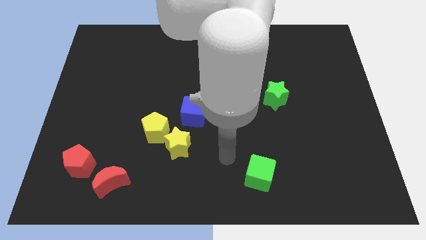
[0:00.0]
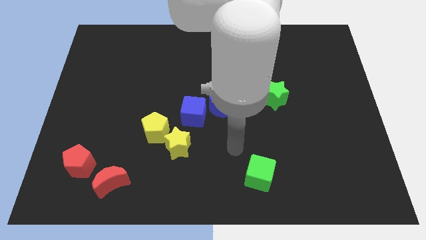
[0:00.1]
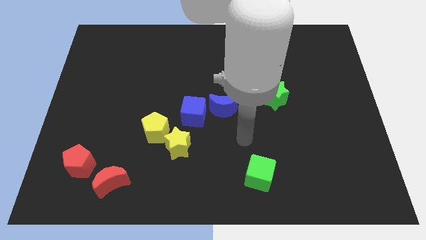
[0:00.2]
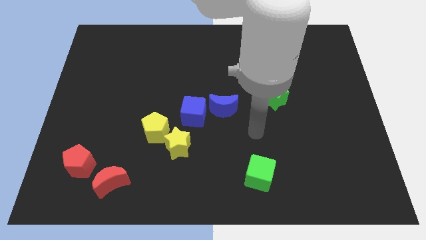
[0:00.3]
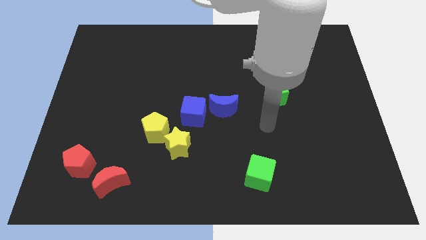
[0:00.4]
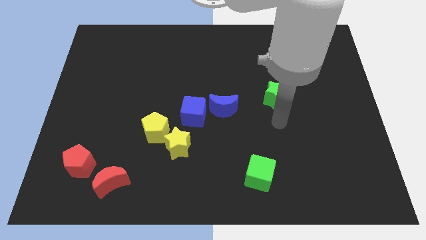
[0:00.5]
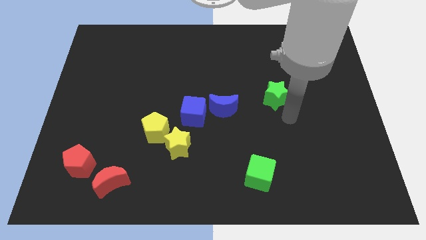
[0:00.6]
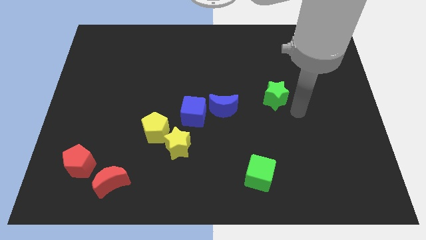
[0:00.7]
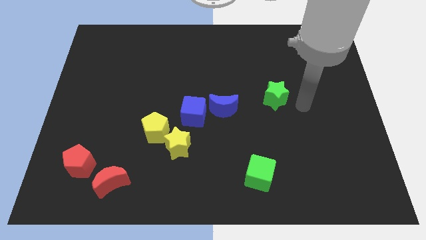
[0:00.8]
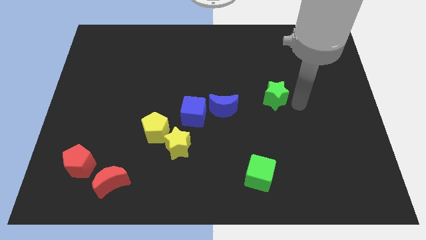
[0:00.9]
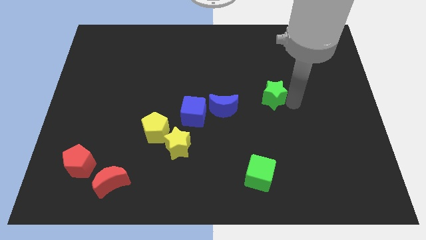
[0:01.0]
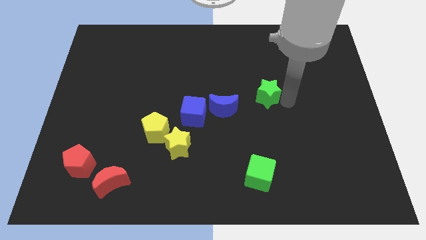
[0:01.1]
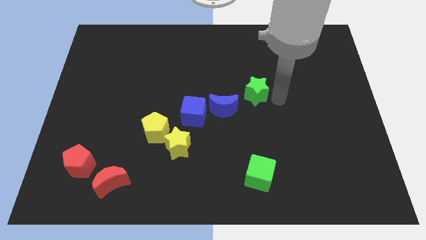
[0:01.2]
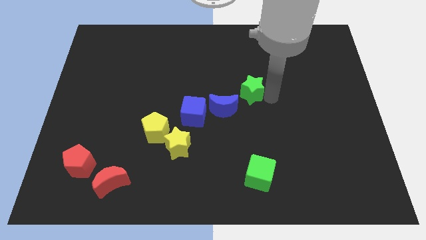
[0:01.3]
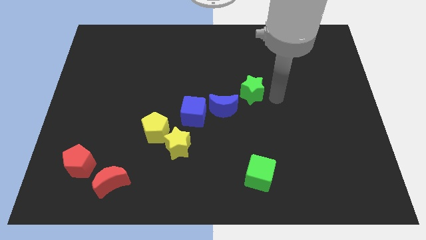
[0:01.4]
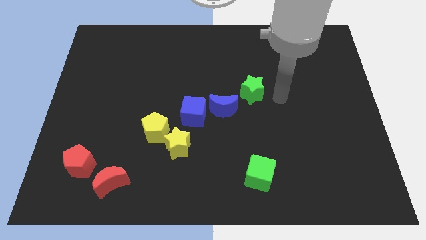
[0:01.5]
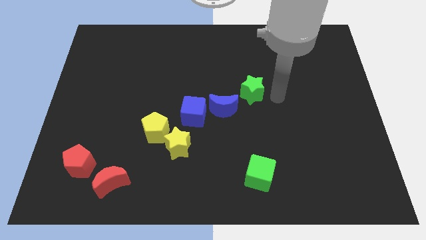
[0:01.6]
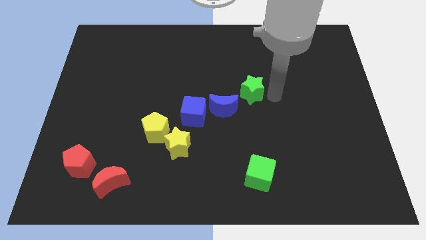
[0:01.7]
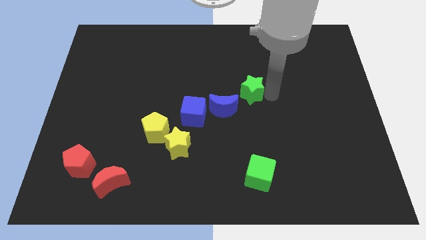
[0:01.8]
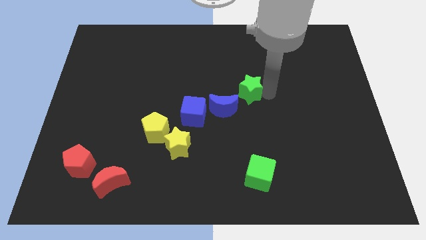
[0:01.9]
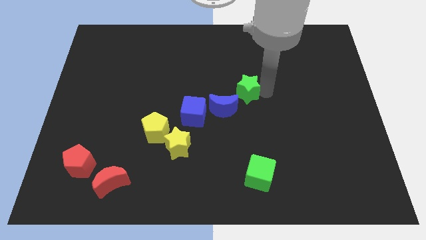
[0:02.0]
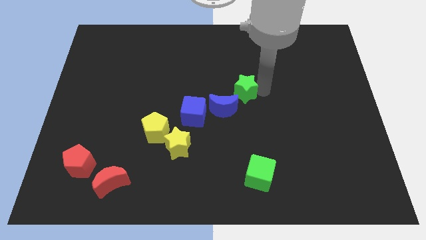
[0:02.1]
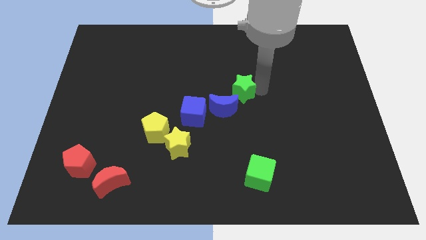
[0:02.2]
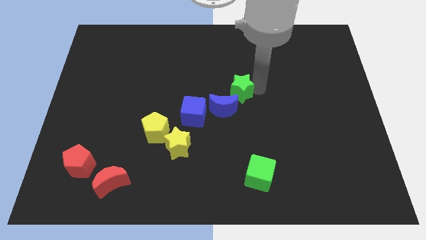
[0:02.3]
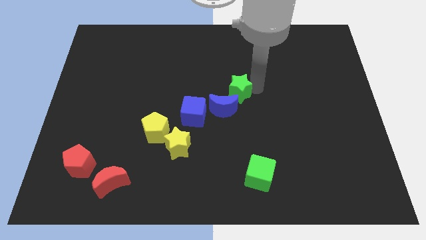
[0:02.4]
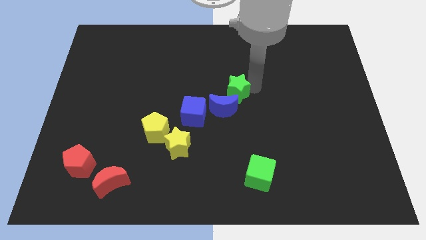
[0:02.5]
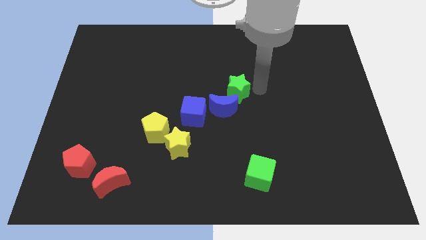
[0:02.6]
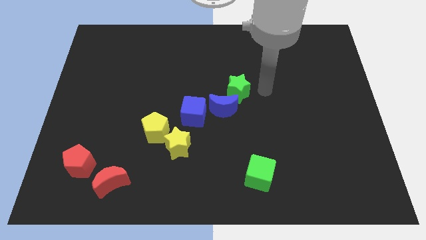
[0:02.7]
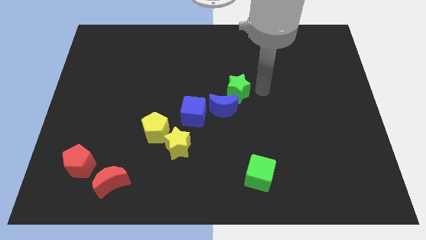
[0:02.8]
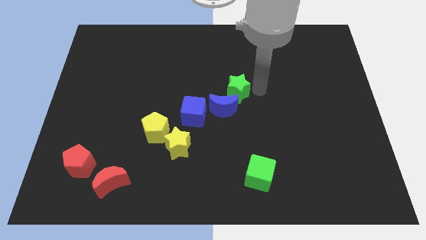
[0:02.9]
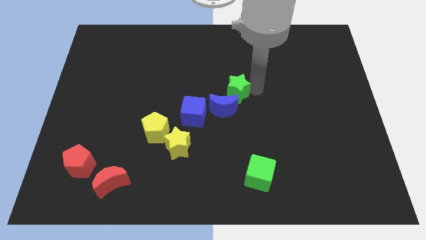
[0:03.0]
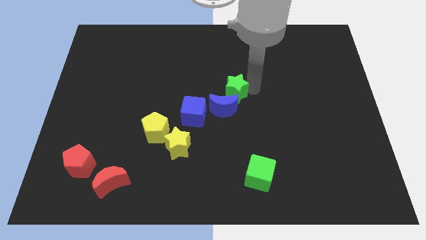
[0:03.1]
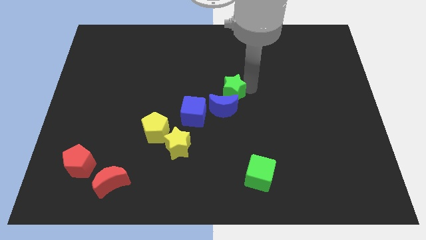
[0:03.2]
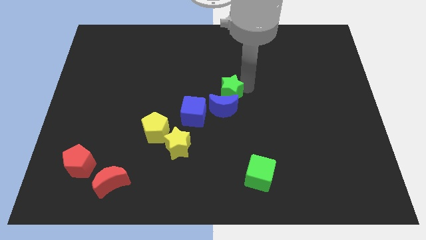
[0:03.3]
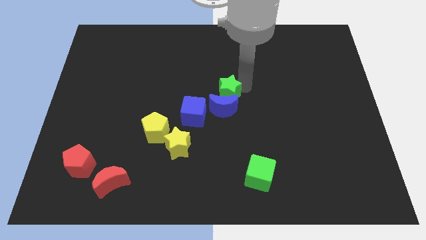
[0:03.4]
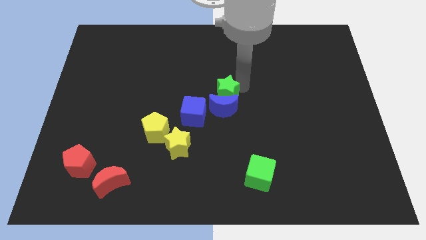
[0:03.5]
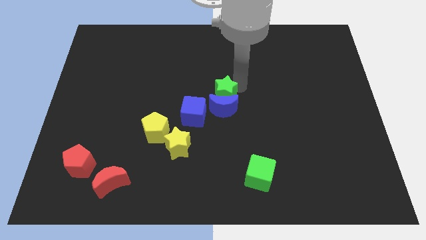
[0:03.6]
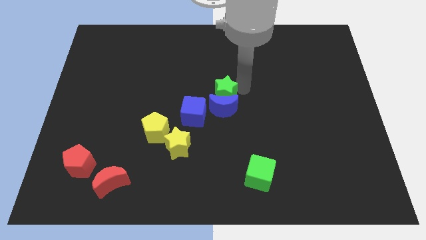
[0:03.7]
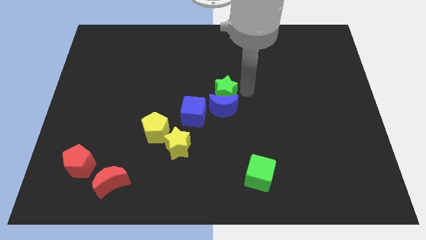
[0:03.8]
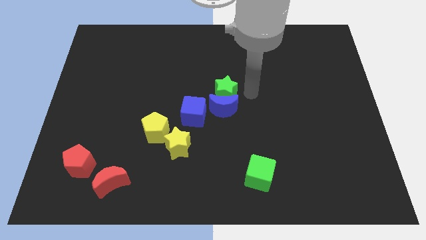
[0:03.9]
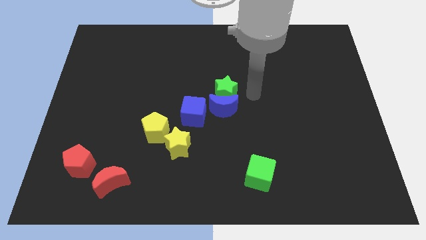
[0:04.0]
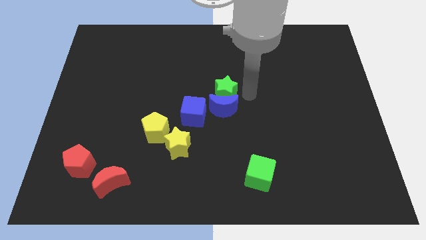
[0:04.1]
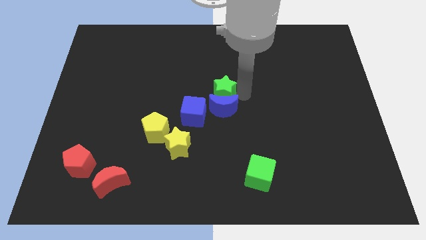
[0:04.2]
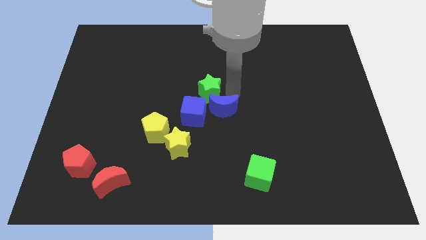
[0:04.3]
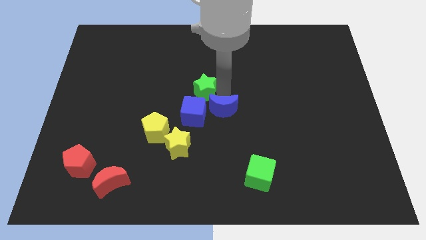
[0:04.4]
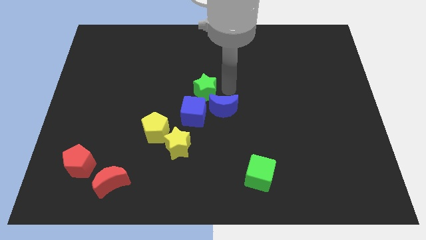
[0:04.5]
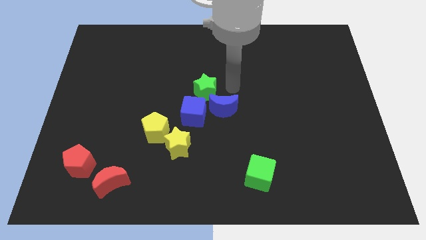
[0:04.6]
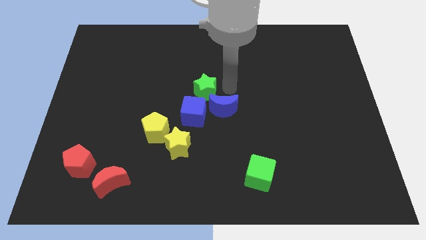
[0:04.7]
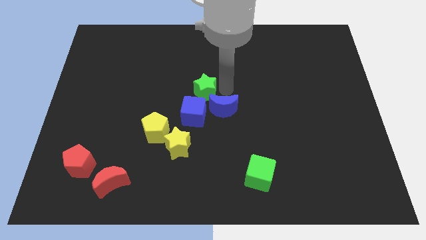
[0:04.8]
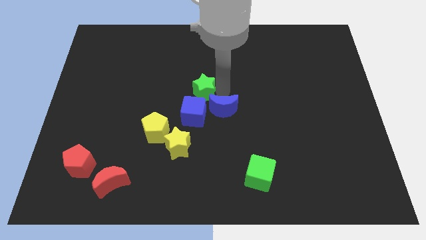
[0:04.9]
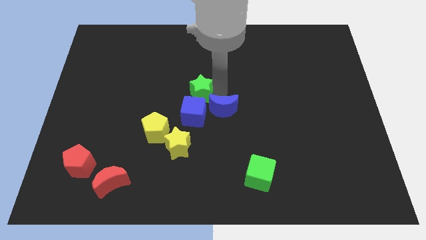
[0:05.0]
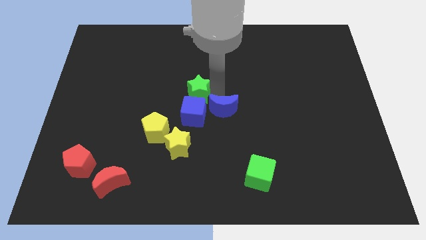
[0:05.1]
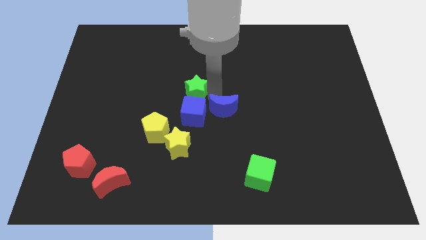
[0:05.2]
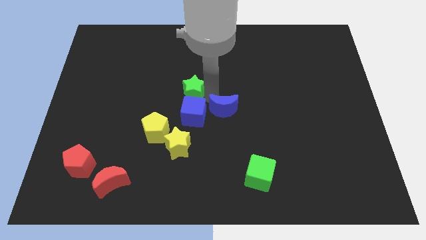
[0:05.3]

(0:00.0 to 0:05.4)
put the green star to the top left side of the blue cube

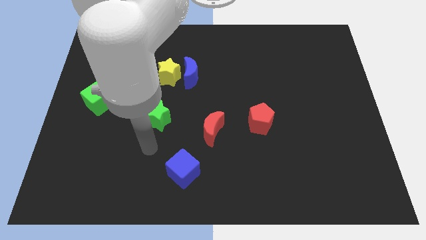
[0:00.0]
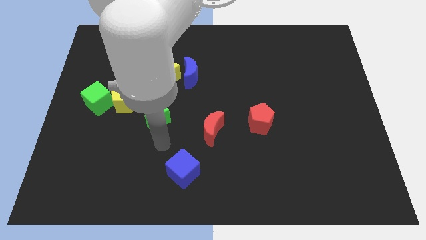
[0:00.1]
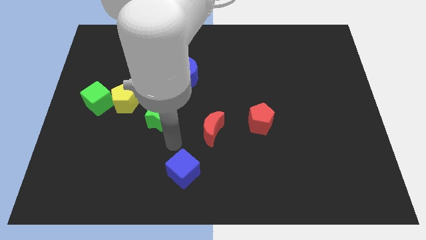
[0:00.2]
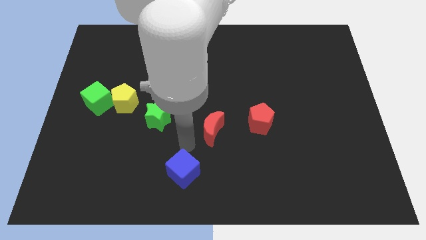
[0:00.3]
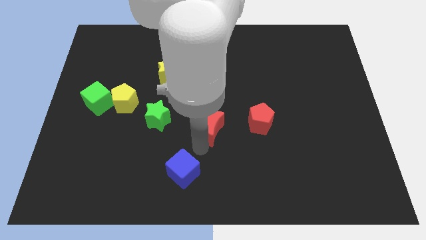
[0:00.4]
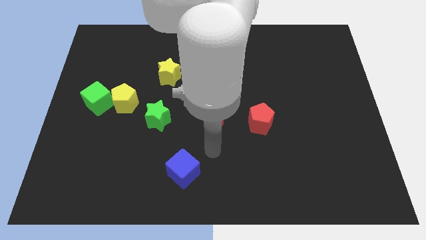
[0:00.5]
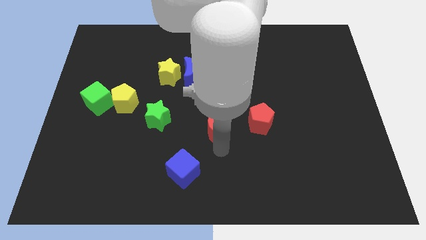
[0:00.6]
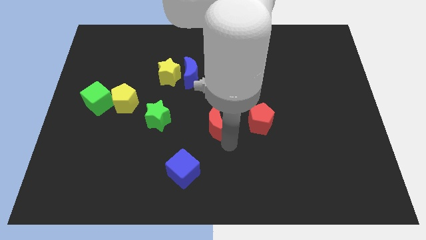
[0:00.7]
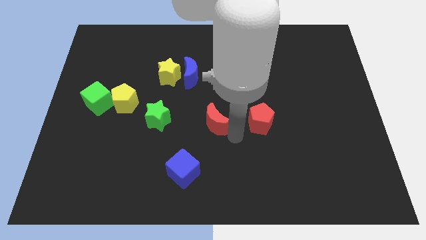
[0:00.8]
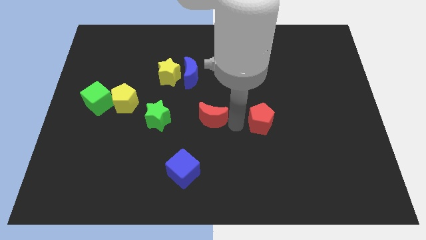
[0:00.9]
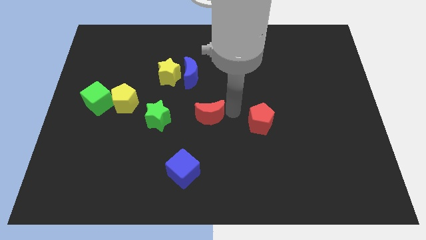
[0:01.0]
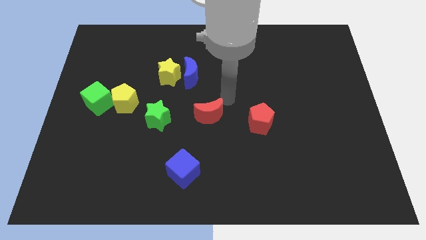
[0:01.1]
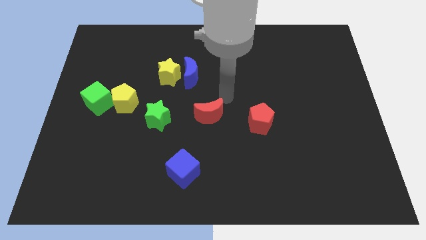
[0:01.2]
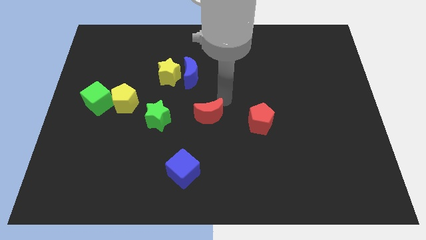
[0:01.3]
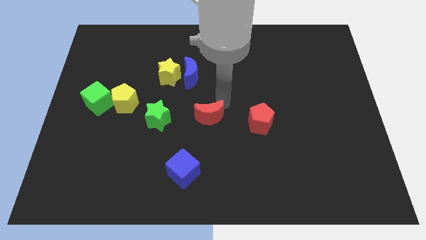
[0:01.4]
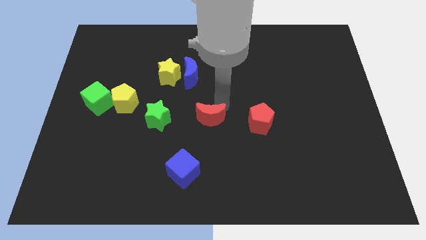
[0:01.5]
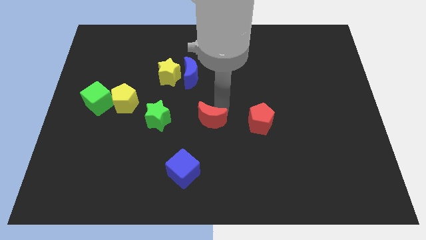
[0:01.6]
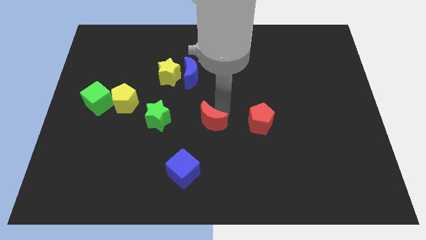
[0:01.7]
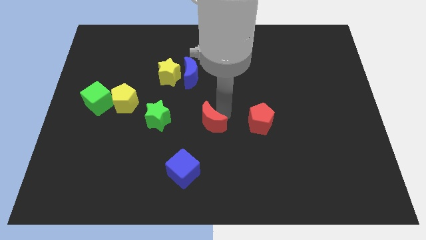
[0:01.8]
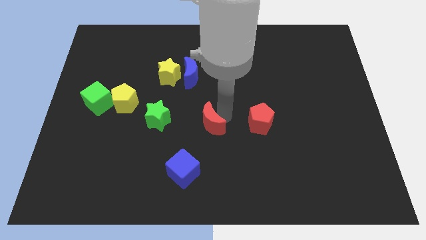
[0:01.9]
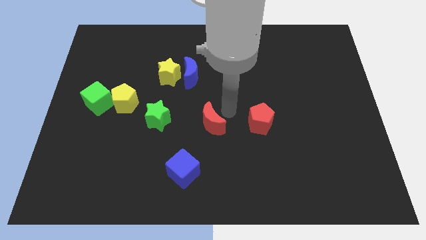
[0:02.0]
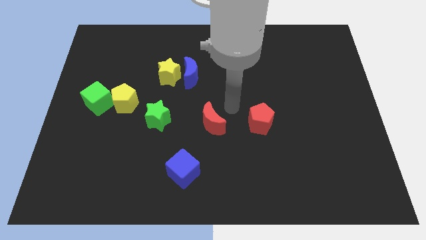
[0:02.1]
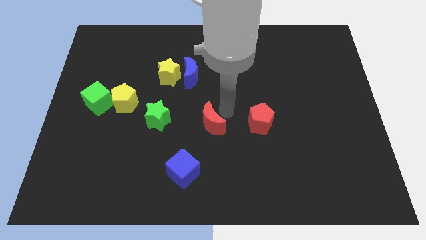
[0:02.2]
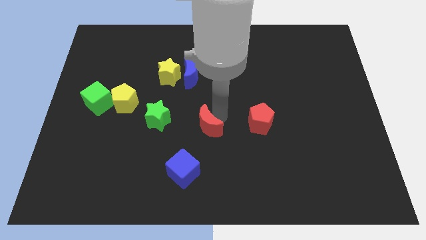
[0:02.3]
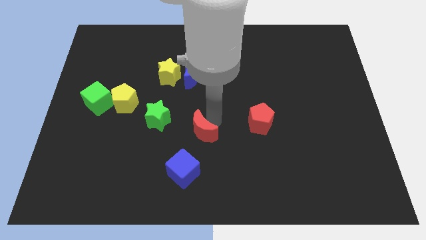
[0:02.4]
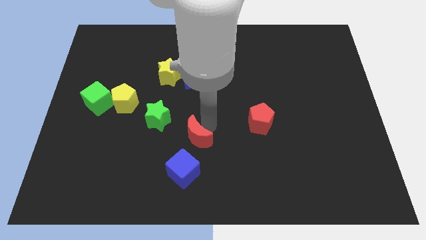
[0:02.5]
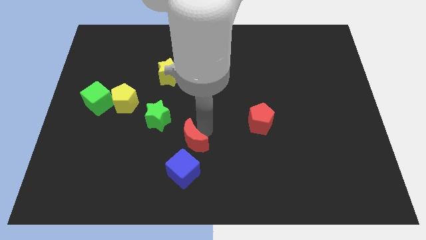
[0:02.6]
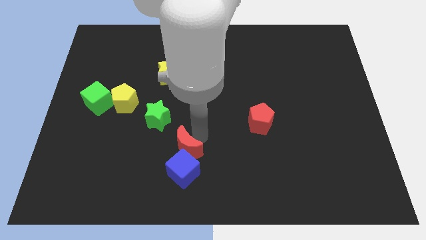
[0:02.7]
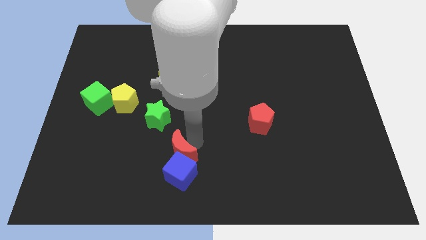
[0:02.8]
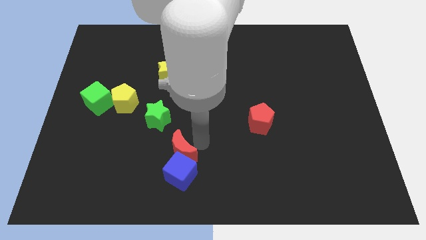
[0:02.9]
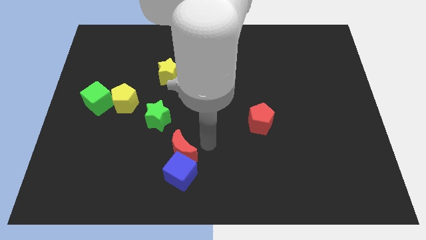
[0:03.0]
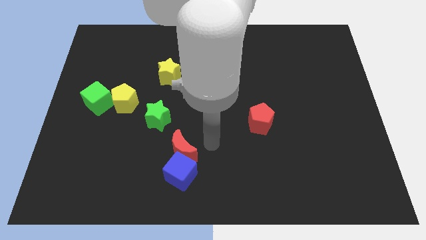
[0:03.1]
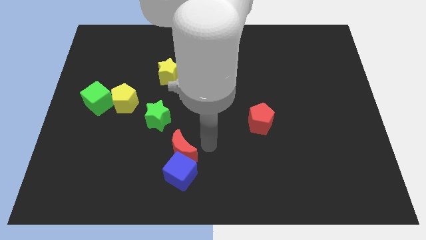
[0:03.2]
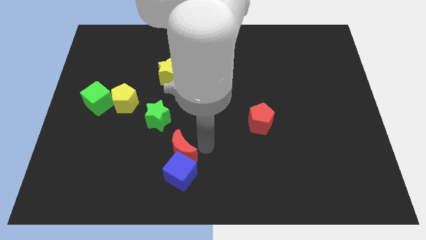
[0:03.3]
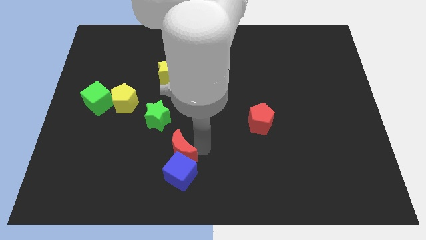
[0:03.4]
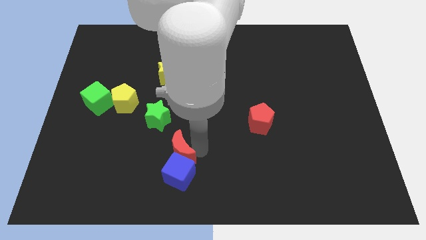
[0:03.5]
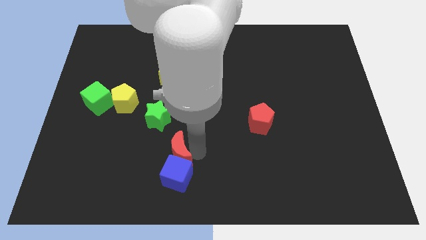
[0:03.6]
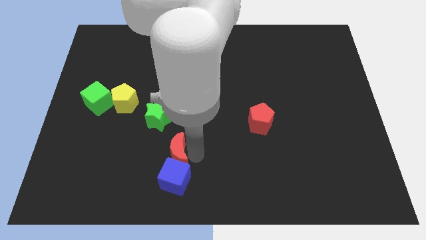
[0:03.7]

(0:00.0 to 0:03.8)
put the red moon below the green star
